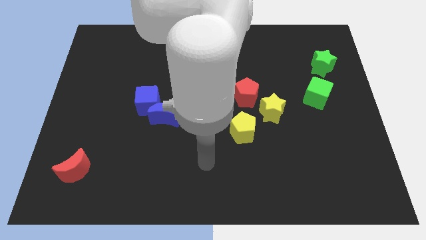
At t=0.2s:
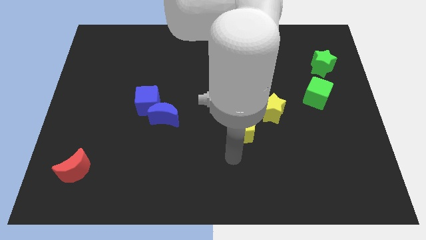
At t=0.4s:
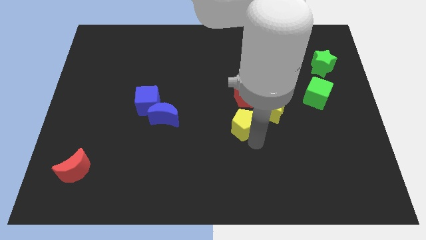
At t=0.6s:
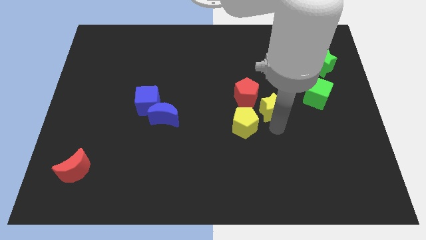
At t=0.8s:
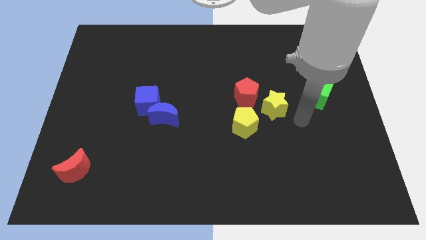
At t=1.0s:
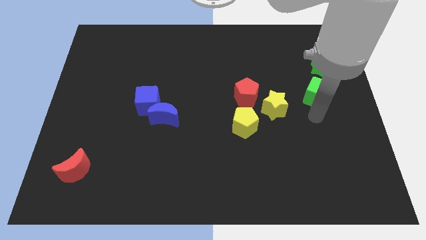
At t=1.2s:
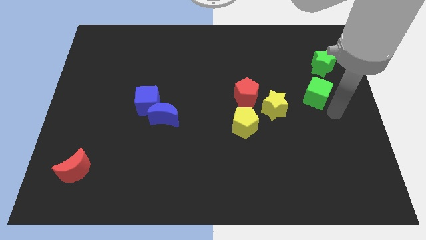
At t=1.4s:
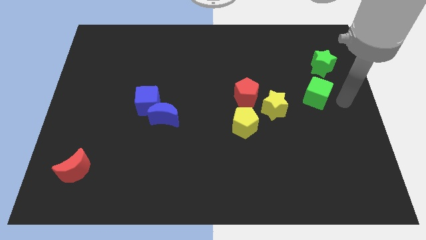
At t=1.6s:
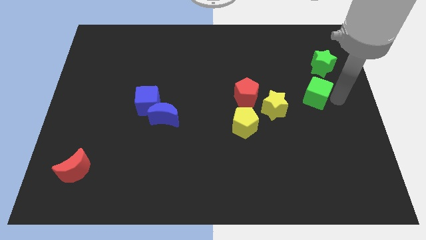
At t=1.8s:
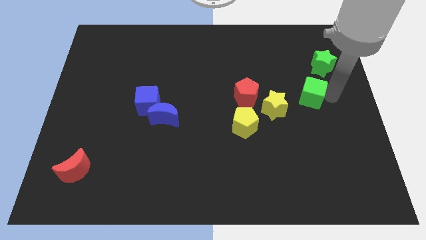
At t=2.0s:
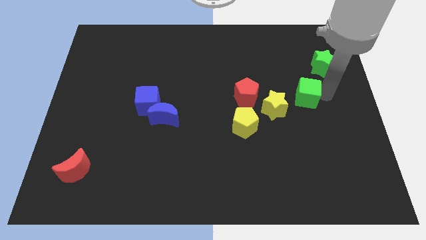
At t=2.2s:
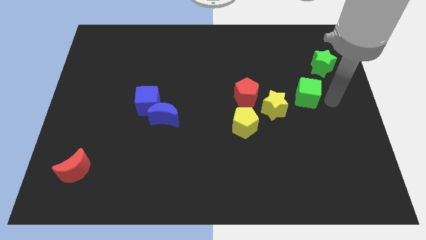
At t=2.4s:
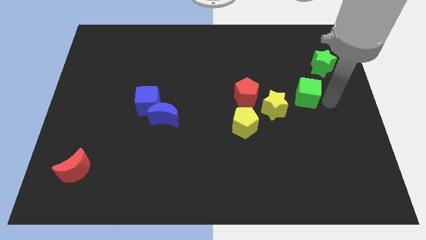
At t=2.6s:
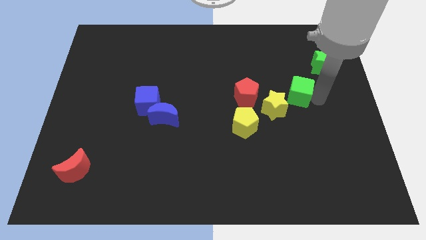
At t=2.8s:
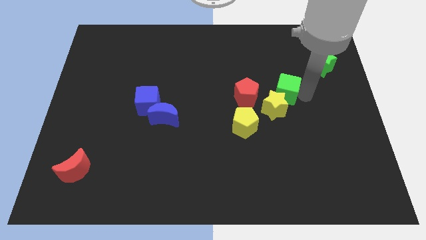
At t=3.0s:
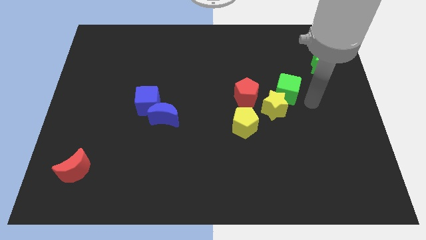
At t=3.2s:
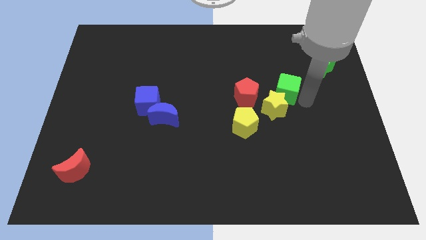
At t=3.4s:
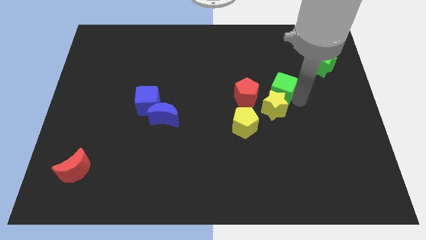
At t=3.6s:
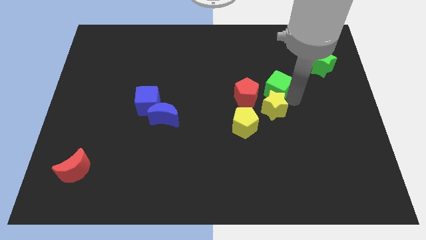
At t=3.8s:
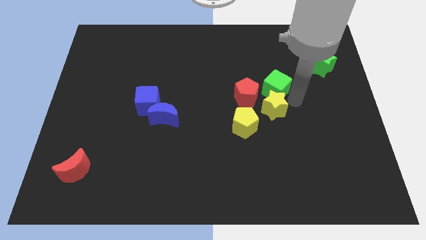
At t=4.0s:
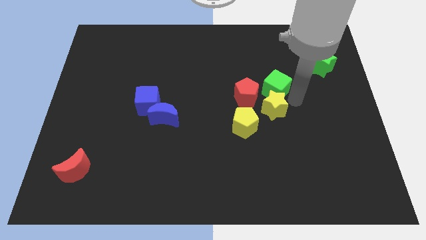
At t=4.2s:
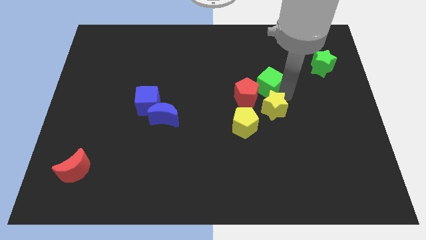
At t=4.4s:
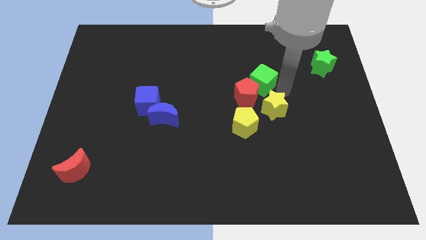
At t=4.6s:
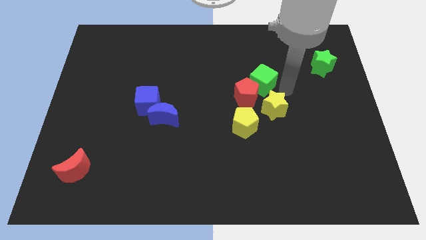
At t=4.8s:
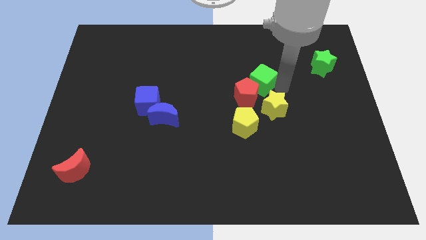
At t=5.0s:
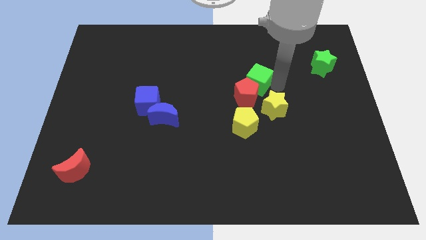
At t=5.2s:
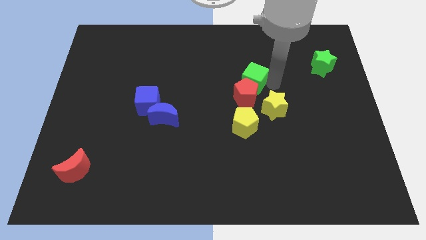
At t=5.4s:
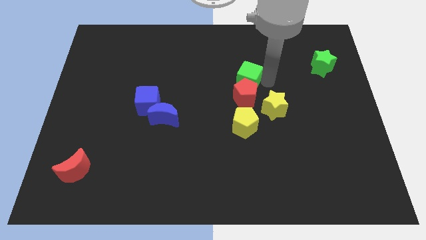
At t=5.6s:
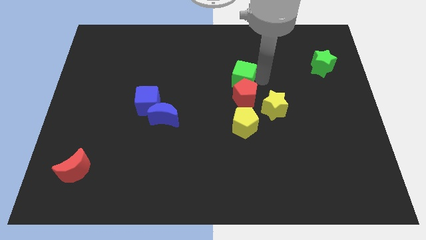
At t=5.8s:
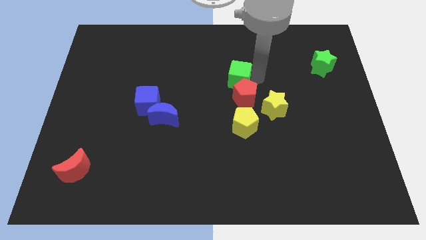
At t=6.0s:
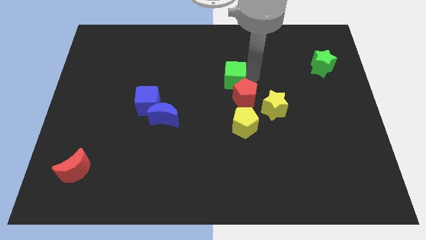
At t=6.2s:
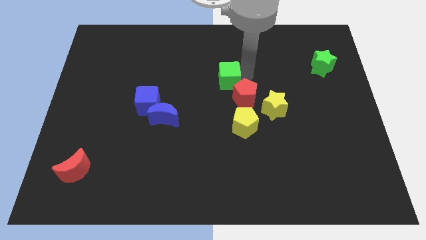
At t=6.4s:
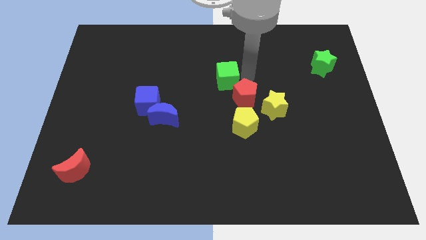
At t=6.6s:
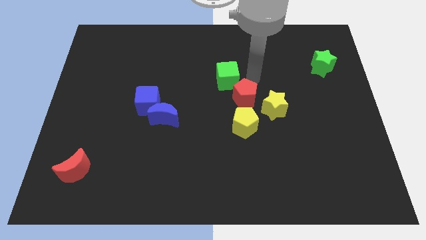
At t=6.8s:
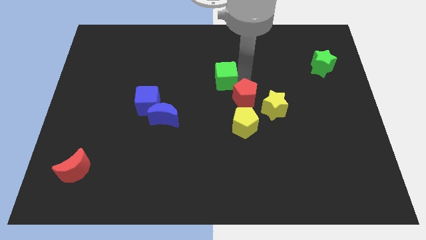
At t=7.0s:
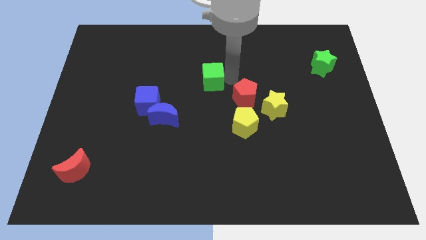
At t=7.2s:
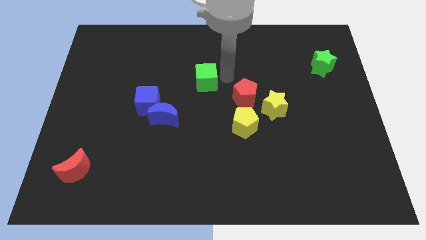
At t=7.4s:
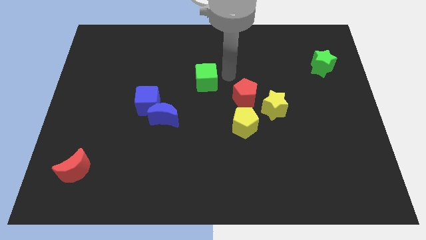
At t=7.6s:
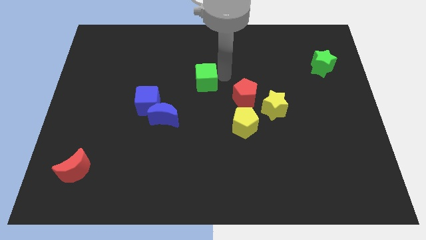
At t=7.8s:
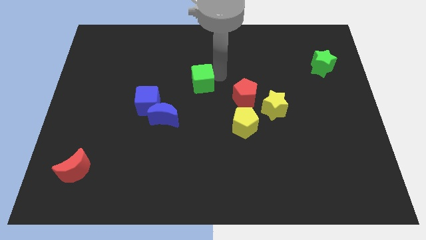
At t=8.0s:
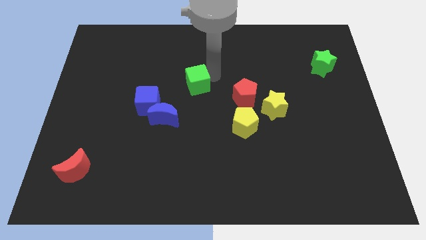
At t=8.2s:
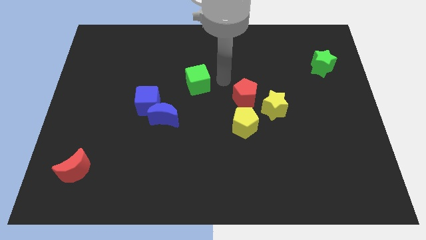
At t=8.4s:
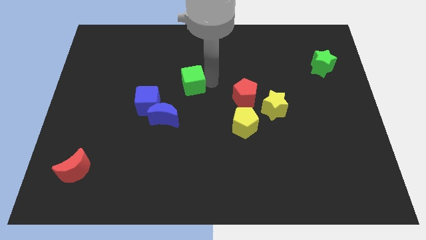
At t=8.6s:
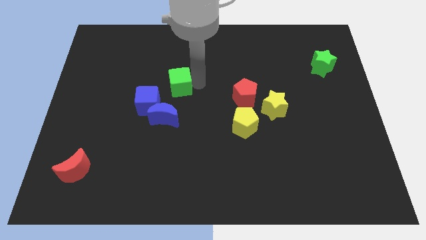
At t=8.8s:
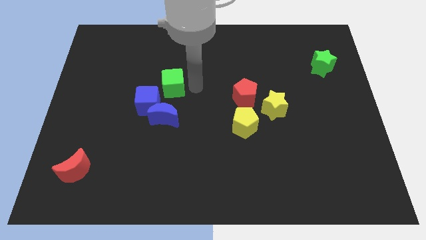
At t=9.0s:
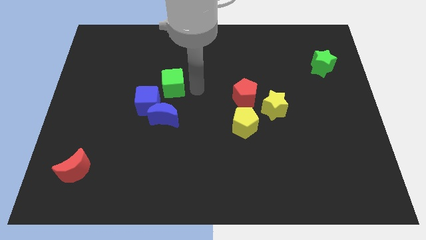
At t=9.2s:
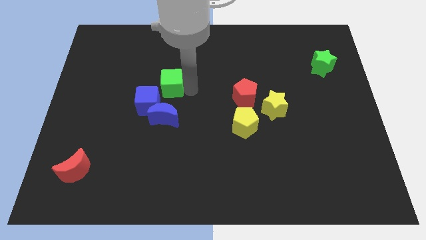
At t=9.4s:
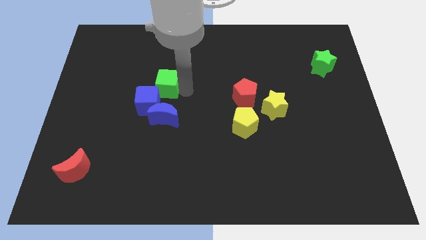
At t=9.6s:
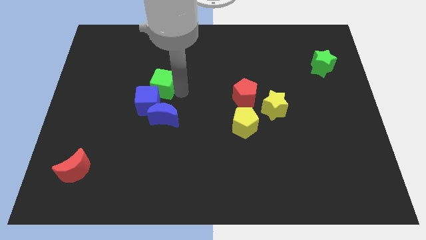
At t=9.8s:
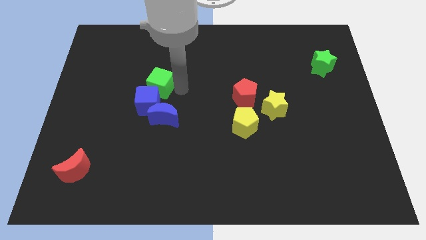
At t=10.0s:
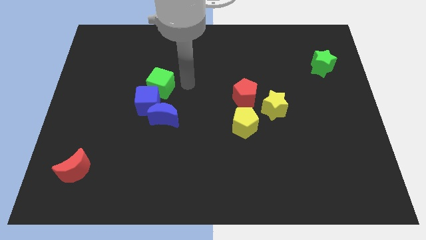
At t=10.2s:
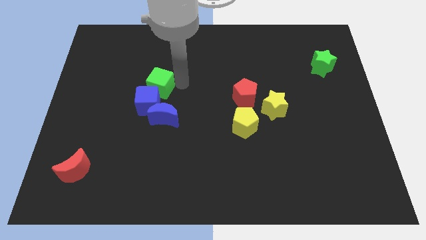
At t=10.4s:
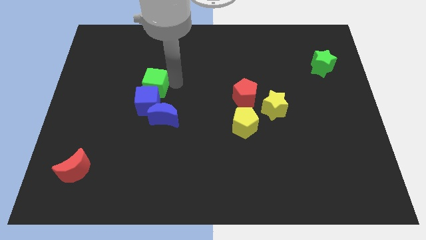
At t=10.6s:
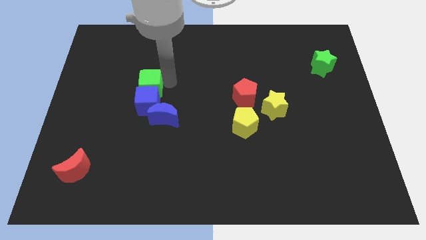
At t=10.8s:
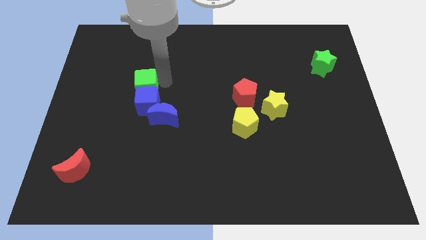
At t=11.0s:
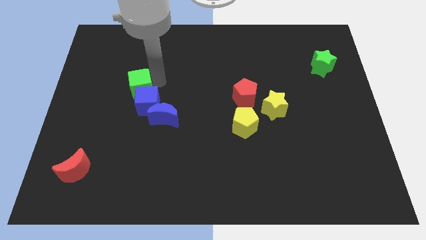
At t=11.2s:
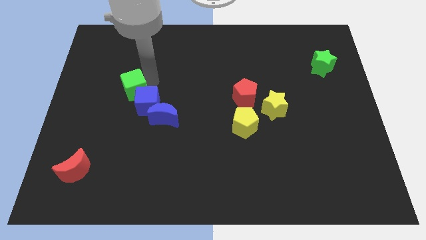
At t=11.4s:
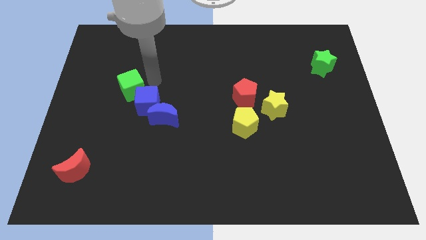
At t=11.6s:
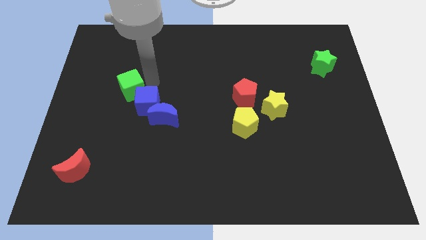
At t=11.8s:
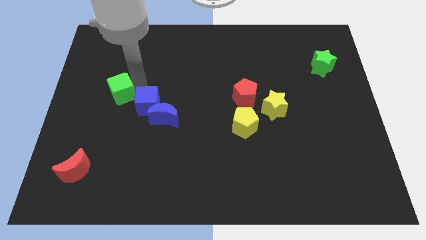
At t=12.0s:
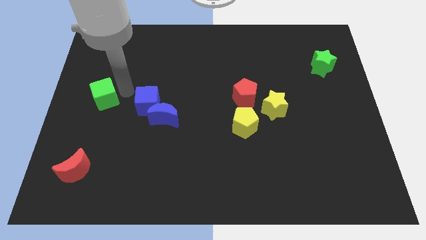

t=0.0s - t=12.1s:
slide the green cube to the center left
